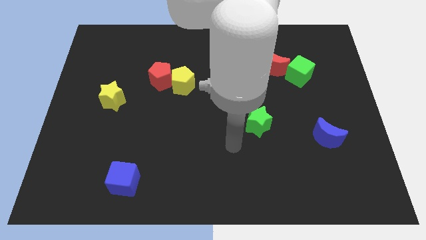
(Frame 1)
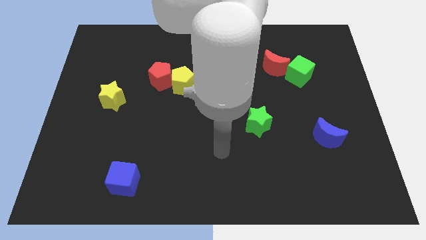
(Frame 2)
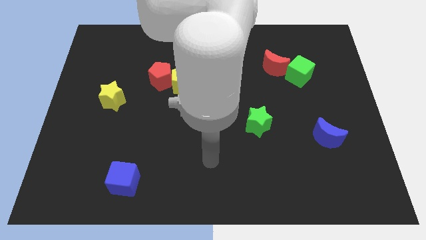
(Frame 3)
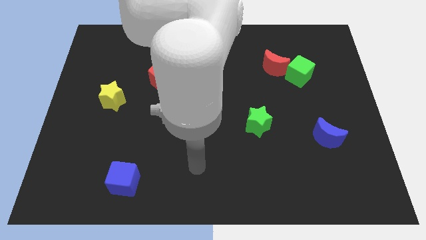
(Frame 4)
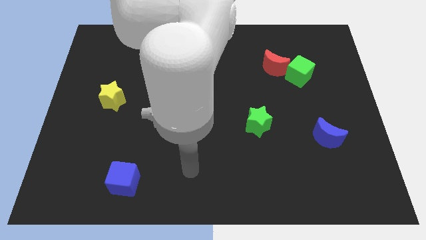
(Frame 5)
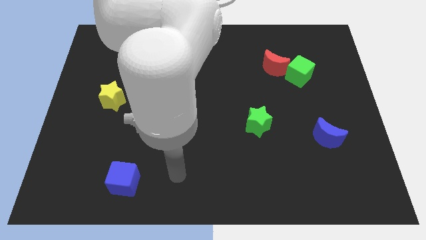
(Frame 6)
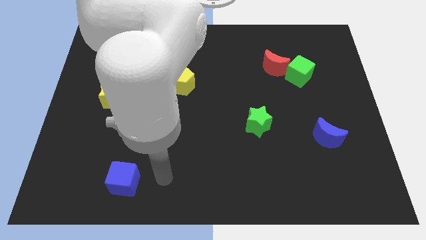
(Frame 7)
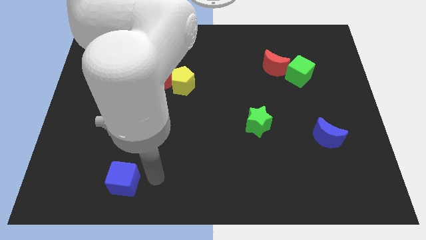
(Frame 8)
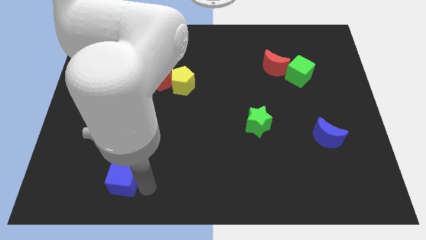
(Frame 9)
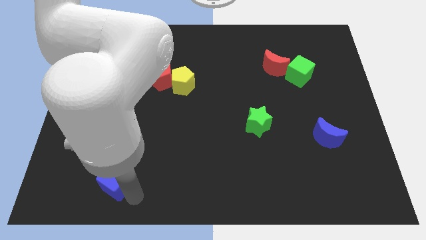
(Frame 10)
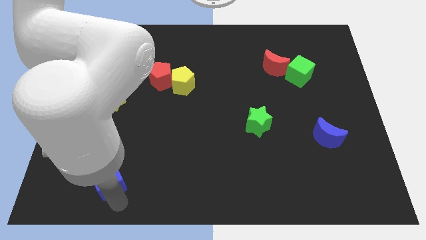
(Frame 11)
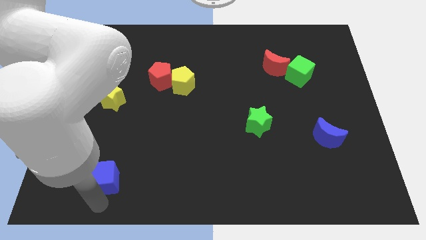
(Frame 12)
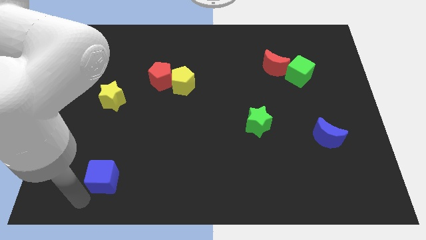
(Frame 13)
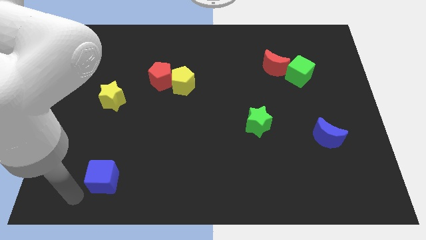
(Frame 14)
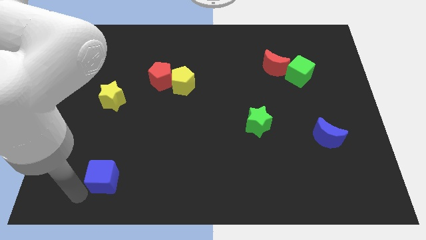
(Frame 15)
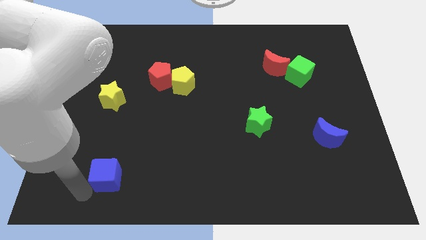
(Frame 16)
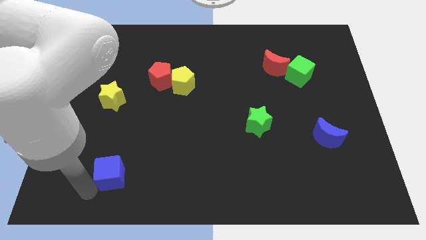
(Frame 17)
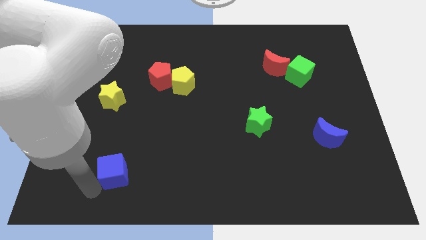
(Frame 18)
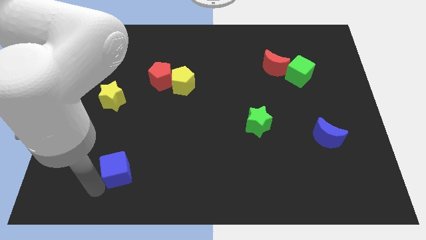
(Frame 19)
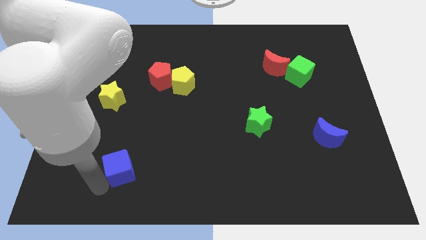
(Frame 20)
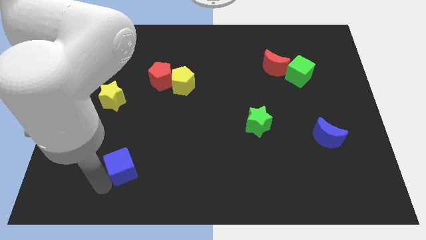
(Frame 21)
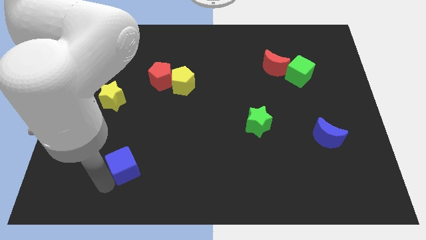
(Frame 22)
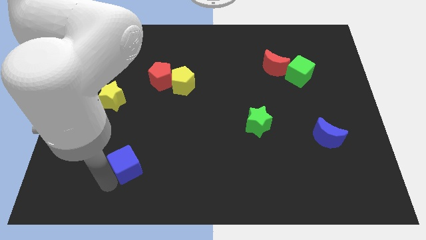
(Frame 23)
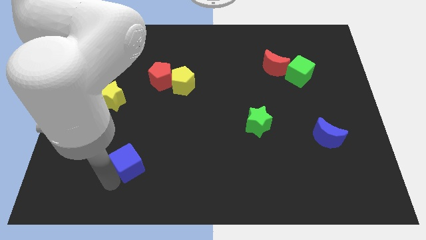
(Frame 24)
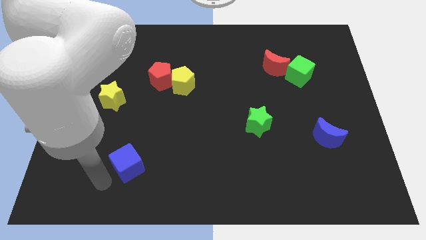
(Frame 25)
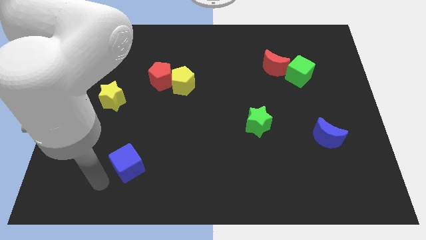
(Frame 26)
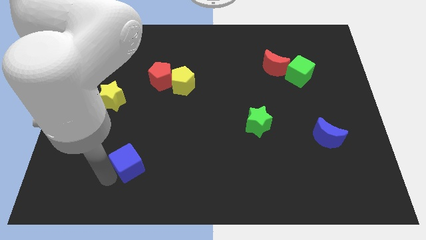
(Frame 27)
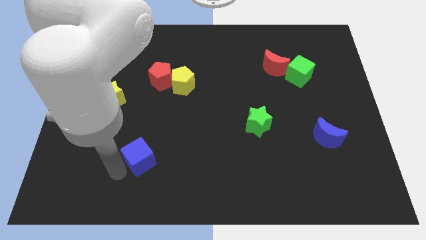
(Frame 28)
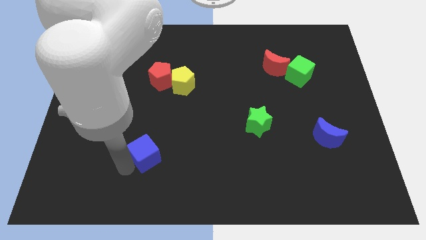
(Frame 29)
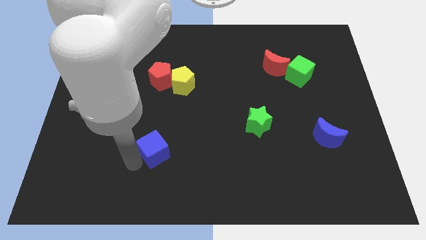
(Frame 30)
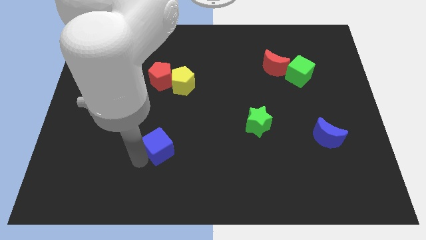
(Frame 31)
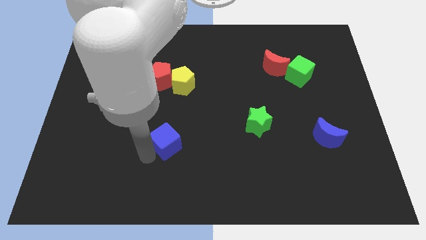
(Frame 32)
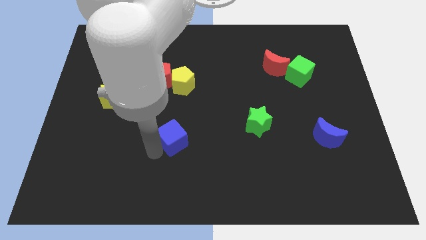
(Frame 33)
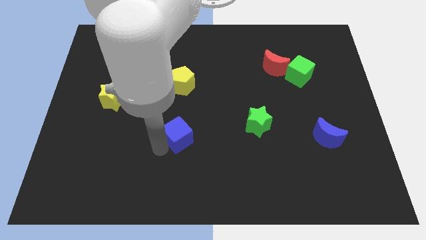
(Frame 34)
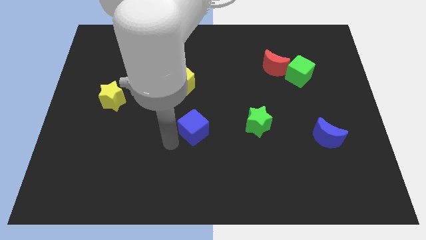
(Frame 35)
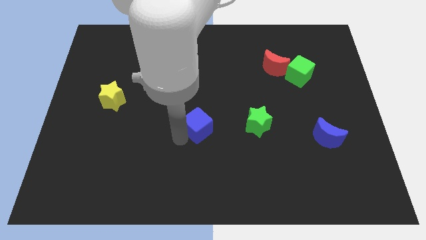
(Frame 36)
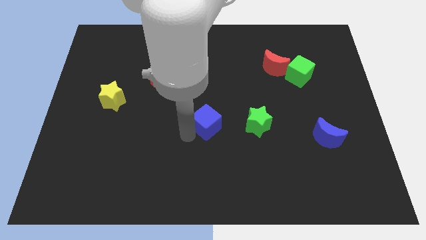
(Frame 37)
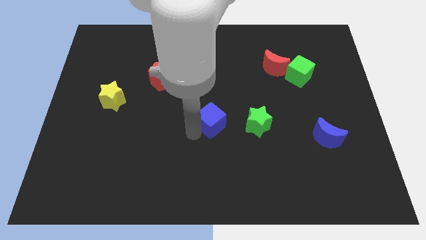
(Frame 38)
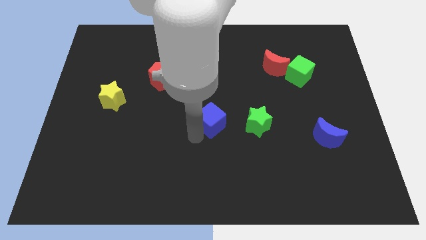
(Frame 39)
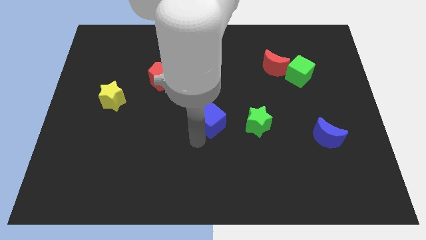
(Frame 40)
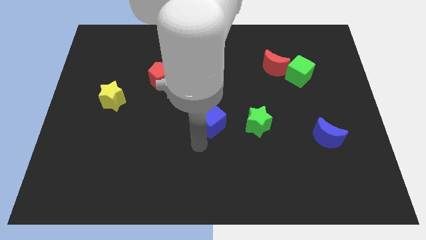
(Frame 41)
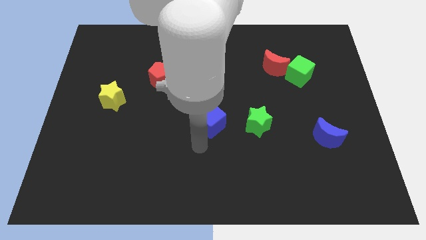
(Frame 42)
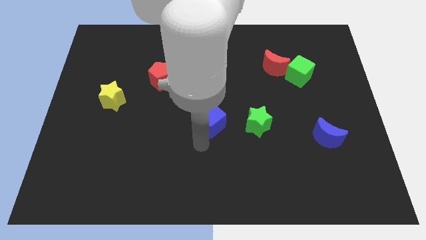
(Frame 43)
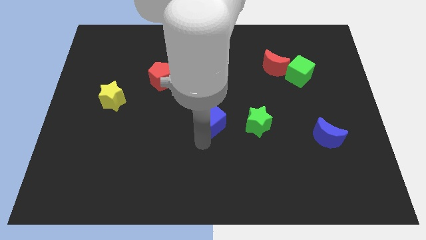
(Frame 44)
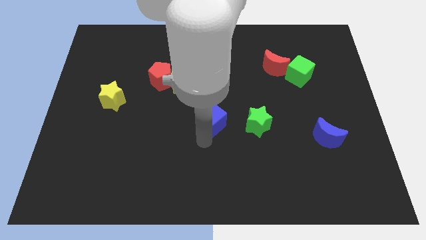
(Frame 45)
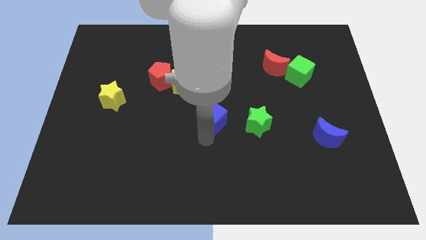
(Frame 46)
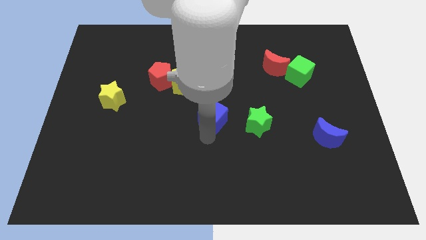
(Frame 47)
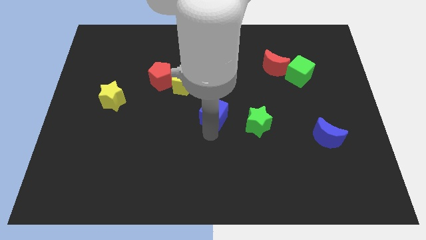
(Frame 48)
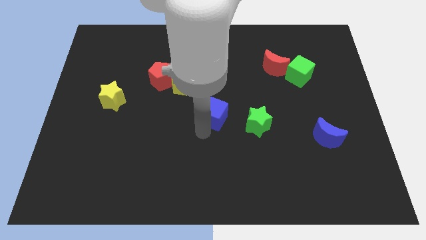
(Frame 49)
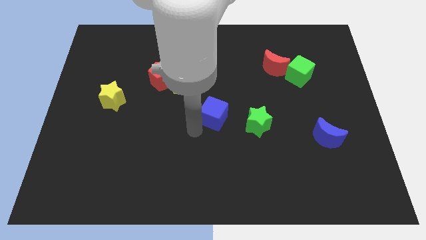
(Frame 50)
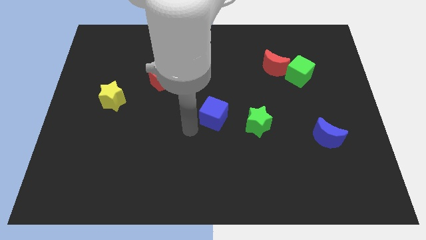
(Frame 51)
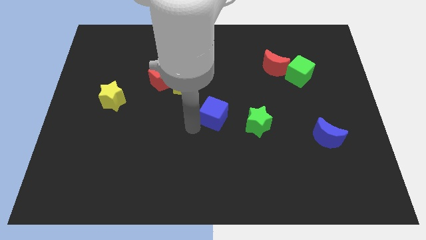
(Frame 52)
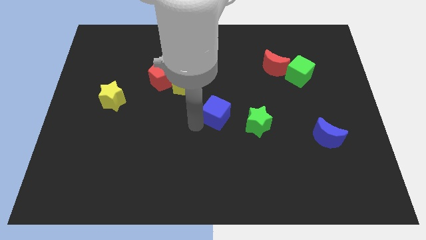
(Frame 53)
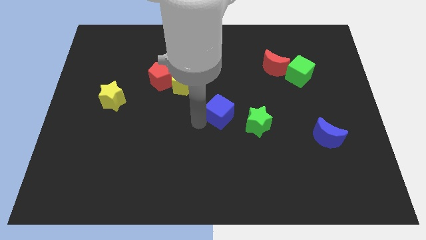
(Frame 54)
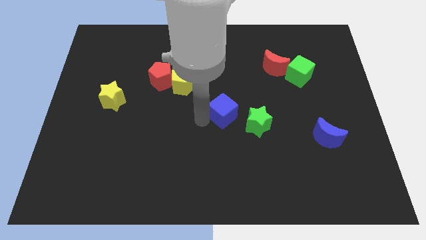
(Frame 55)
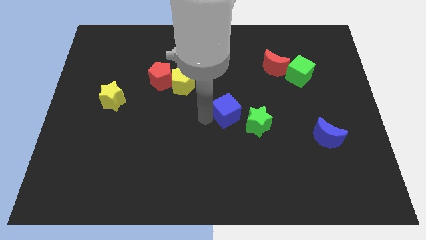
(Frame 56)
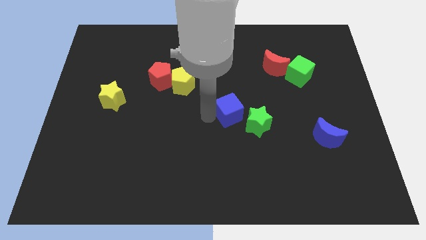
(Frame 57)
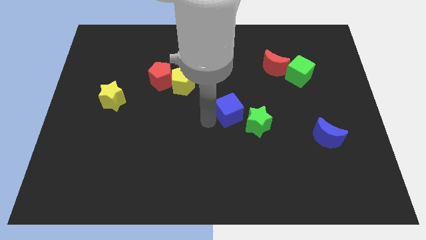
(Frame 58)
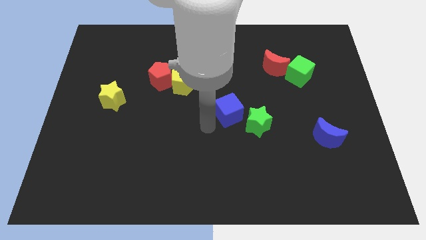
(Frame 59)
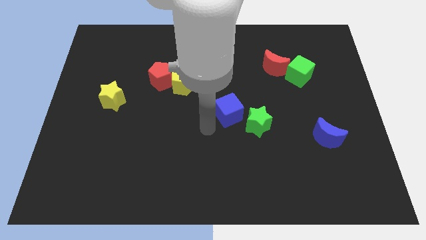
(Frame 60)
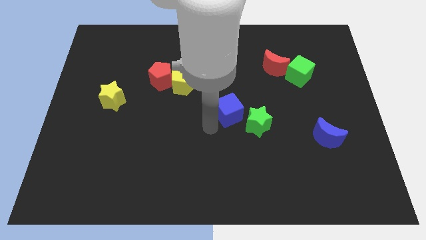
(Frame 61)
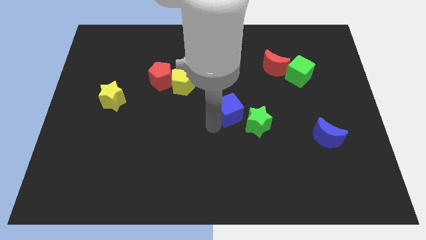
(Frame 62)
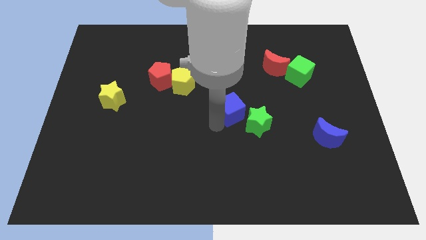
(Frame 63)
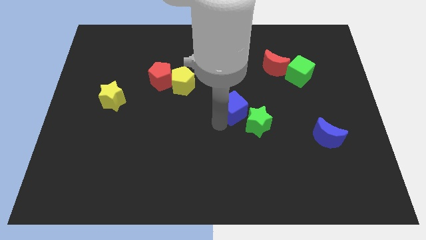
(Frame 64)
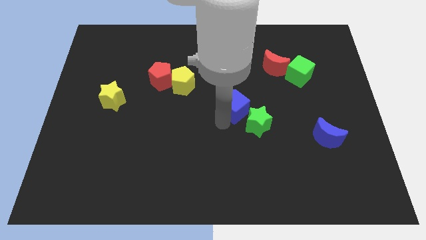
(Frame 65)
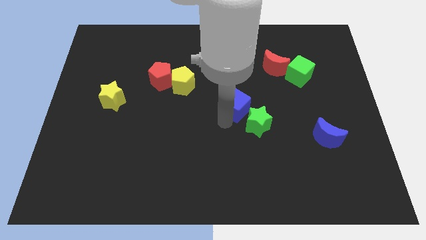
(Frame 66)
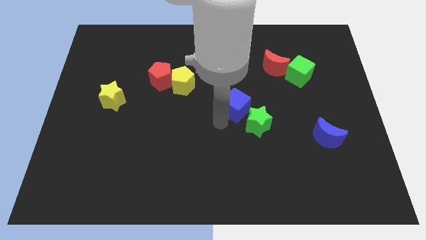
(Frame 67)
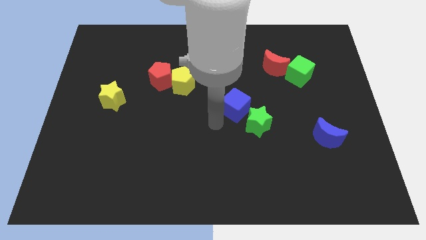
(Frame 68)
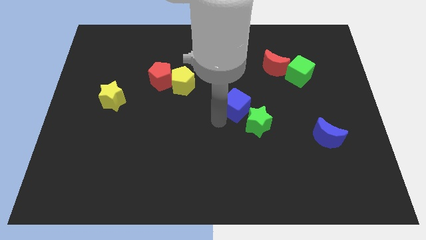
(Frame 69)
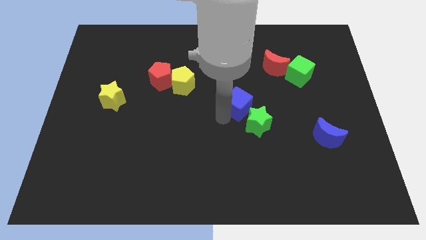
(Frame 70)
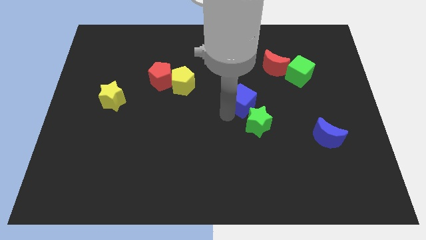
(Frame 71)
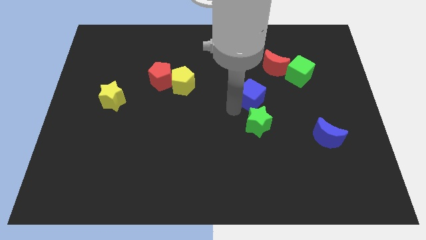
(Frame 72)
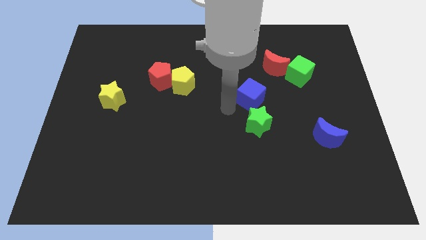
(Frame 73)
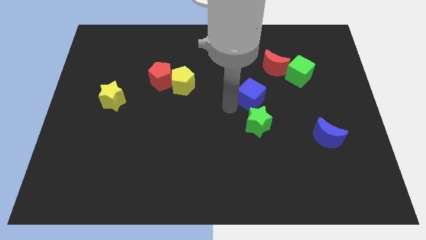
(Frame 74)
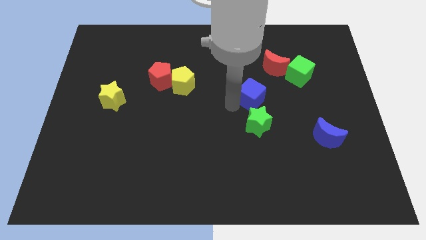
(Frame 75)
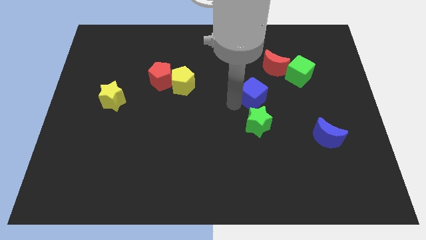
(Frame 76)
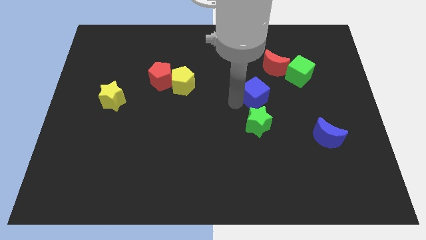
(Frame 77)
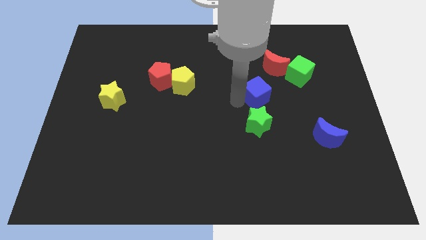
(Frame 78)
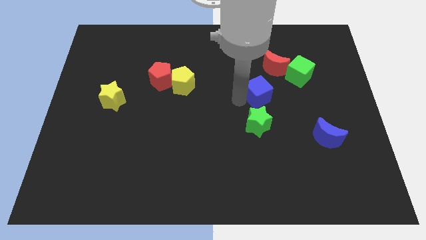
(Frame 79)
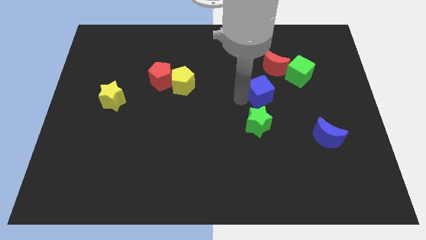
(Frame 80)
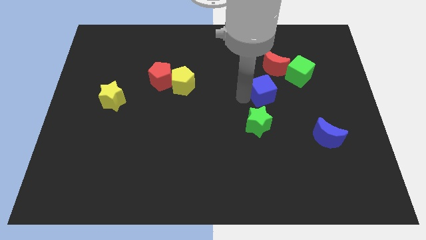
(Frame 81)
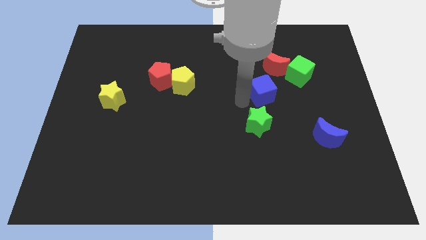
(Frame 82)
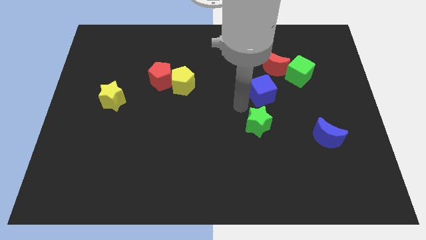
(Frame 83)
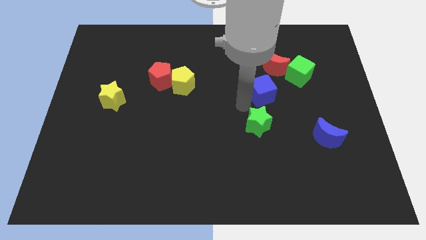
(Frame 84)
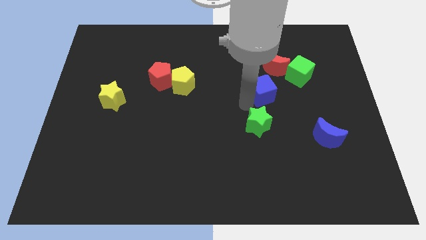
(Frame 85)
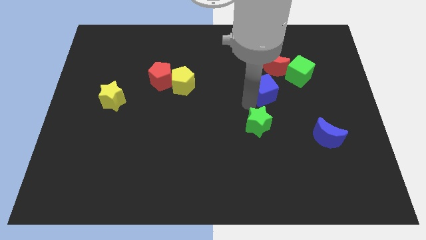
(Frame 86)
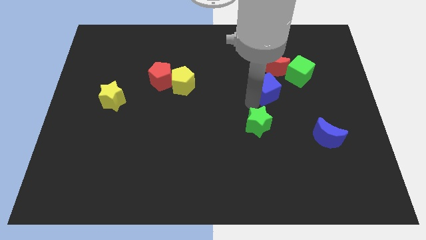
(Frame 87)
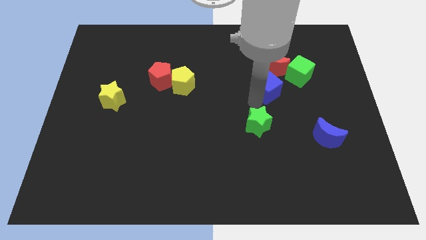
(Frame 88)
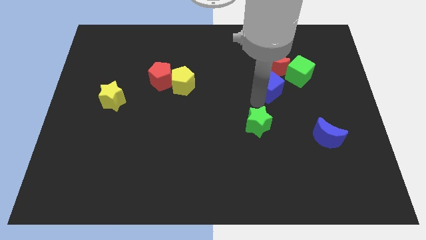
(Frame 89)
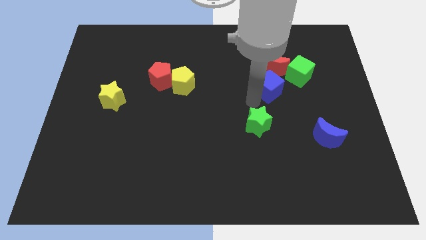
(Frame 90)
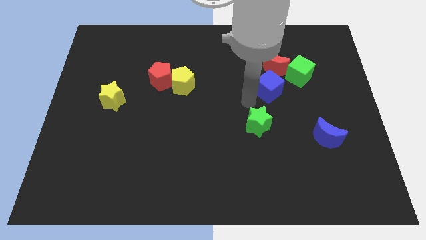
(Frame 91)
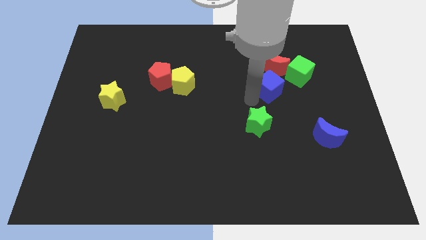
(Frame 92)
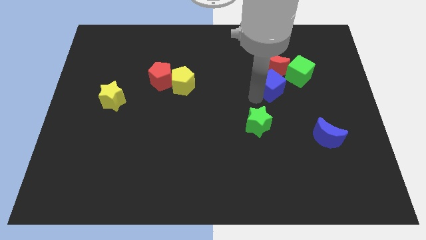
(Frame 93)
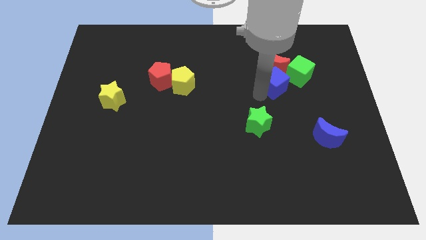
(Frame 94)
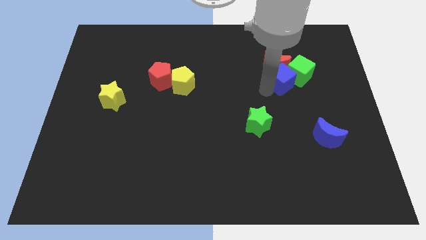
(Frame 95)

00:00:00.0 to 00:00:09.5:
push the blue cube towards the green cube
